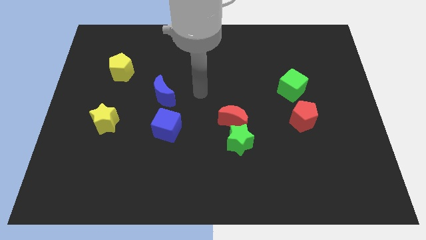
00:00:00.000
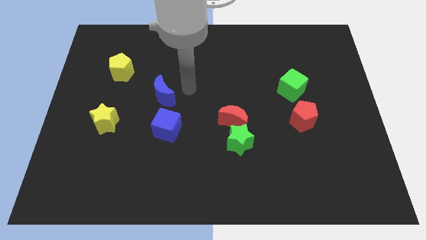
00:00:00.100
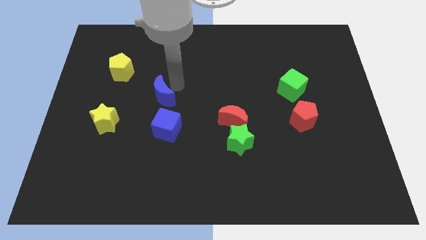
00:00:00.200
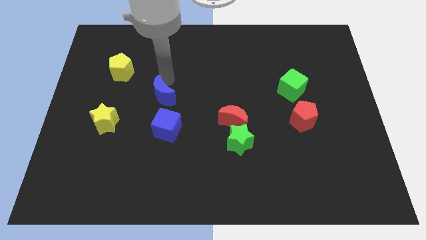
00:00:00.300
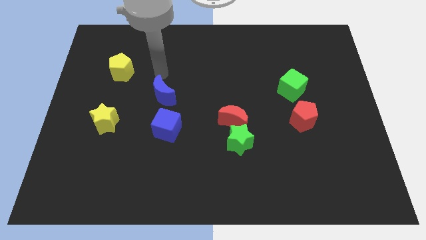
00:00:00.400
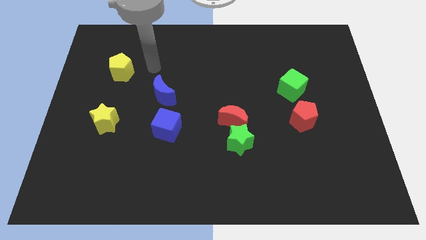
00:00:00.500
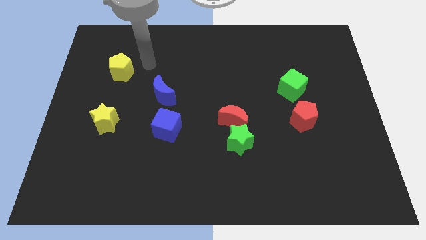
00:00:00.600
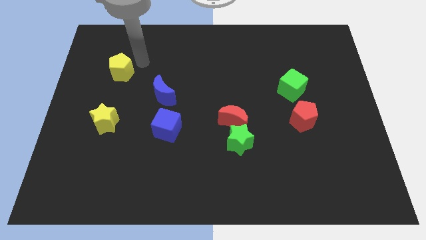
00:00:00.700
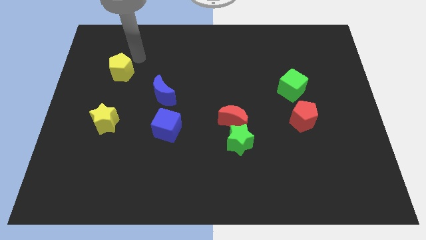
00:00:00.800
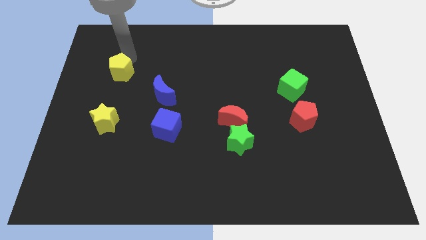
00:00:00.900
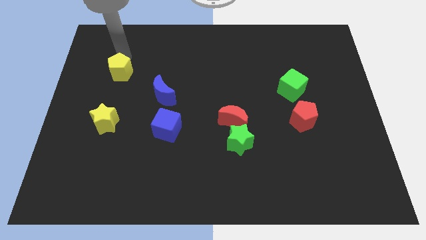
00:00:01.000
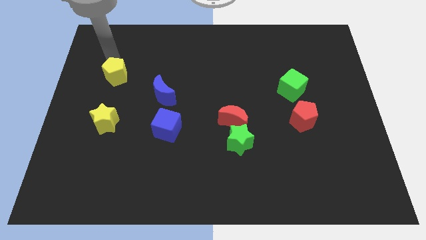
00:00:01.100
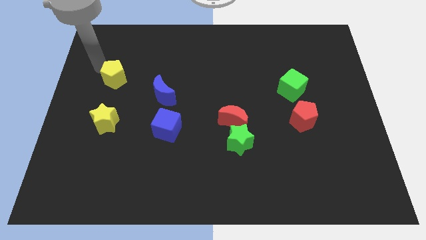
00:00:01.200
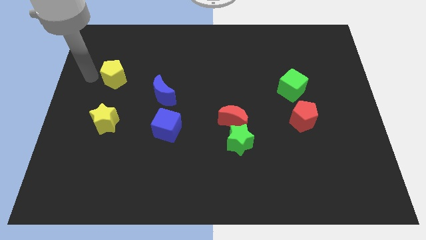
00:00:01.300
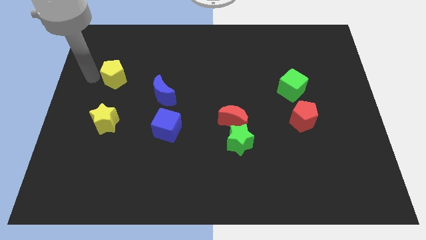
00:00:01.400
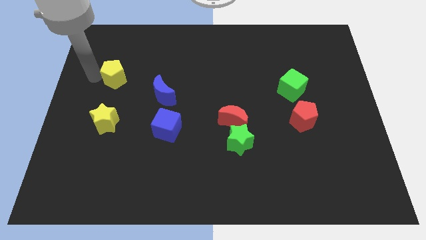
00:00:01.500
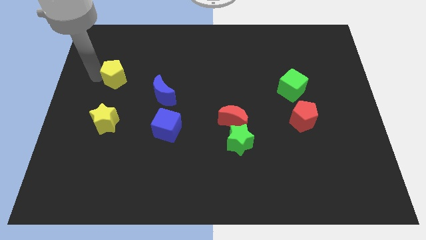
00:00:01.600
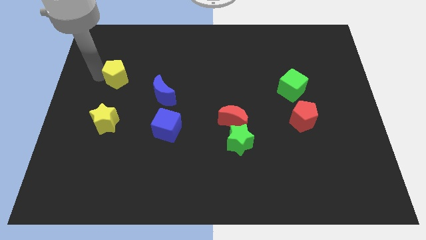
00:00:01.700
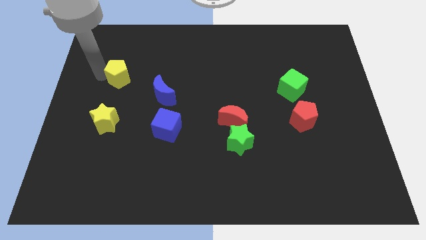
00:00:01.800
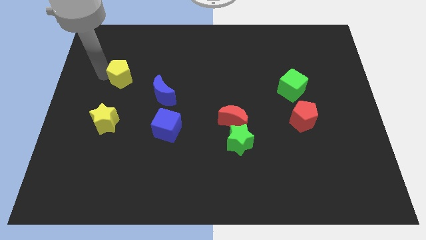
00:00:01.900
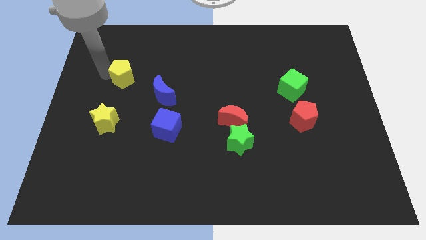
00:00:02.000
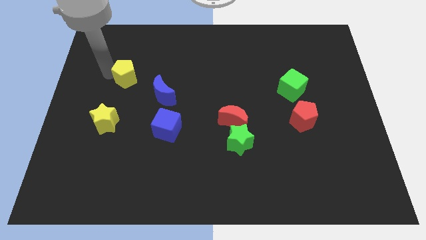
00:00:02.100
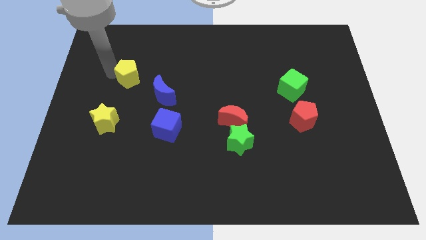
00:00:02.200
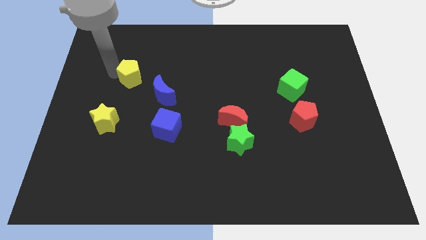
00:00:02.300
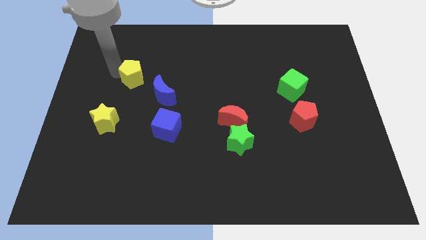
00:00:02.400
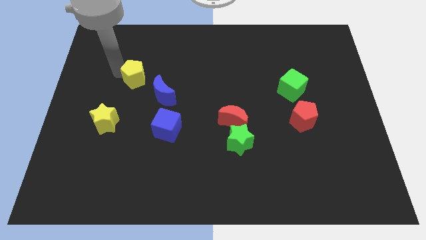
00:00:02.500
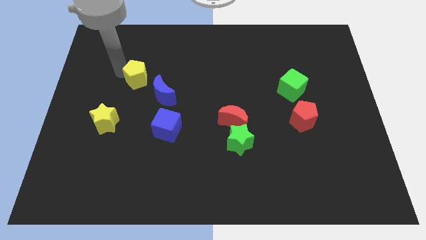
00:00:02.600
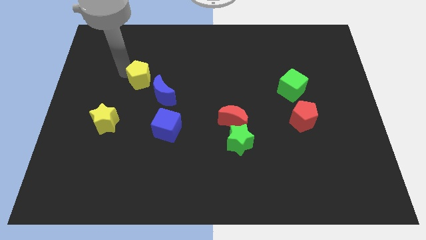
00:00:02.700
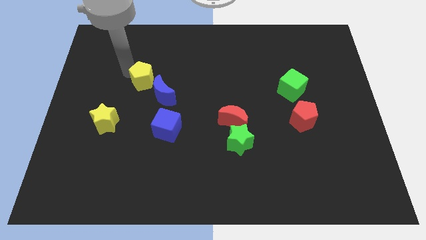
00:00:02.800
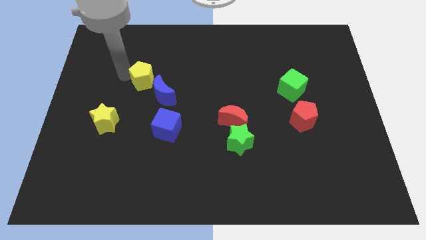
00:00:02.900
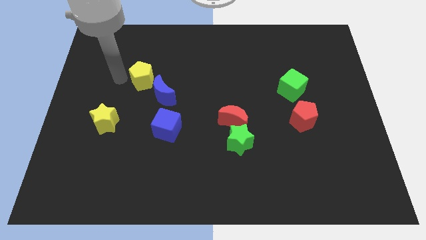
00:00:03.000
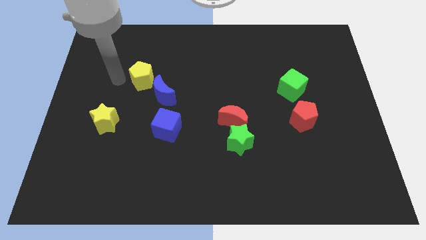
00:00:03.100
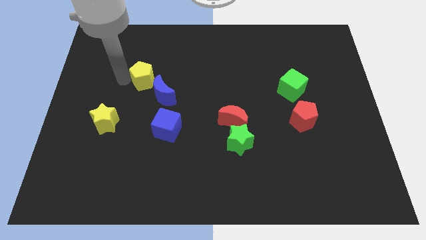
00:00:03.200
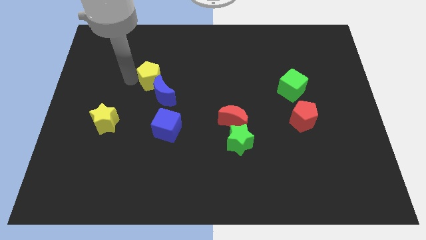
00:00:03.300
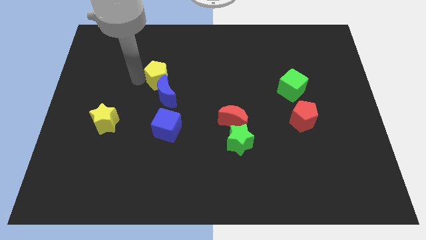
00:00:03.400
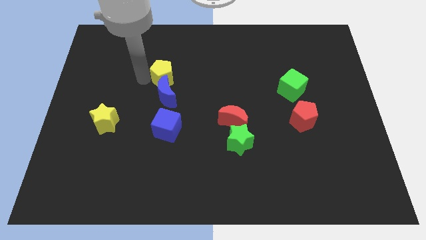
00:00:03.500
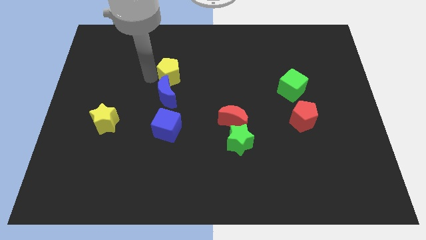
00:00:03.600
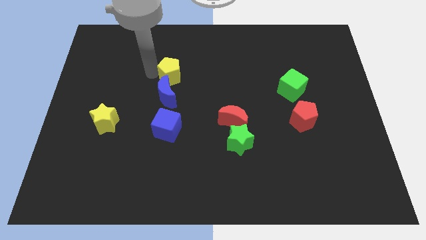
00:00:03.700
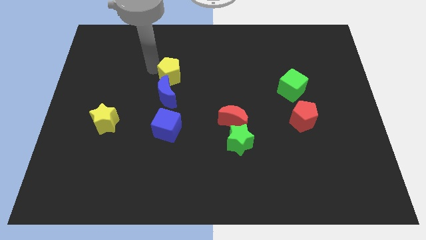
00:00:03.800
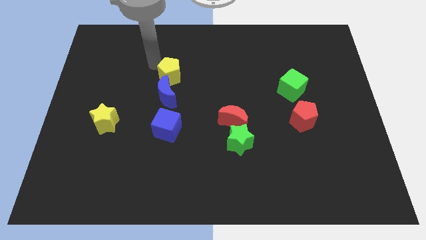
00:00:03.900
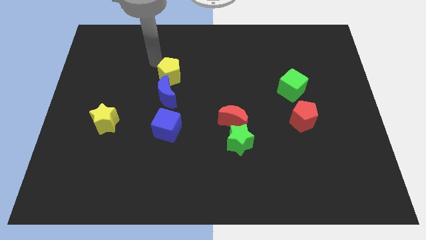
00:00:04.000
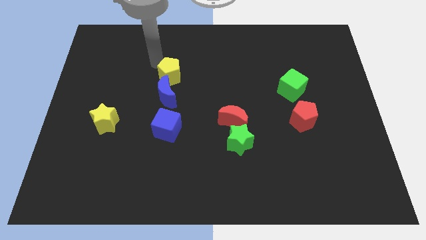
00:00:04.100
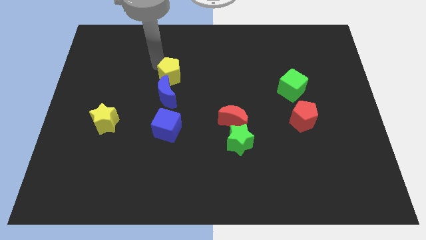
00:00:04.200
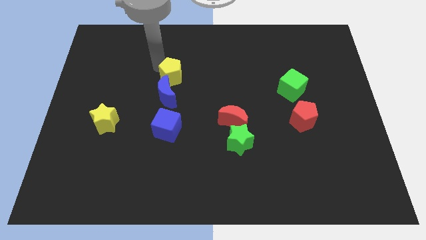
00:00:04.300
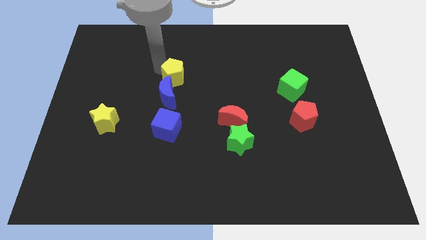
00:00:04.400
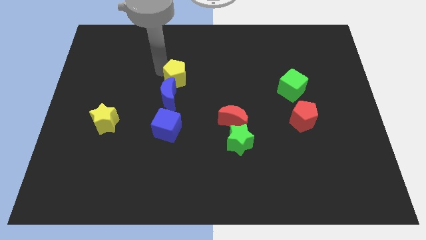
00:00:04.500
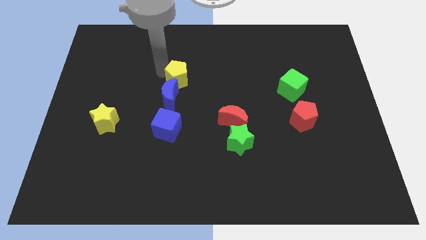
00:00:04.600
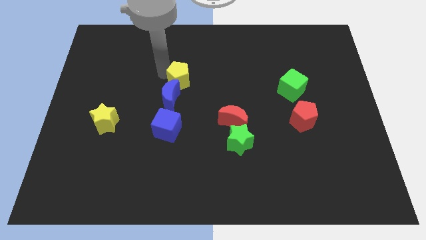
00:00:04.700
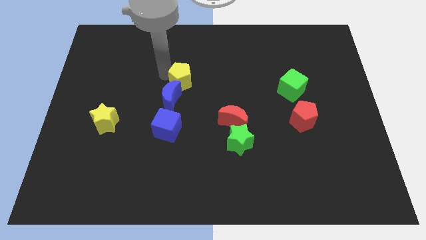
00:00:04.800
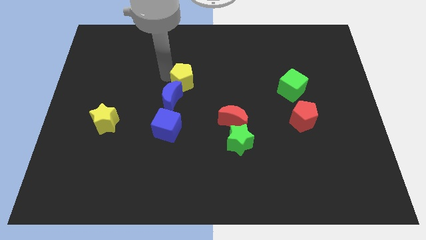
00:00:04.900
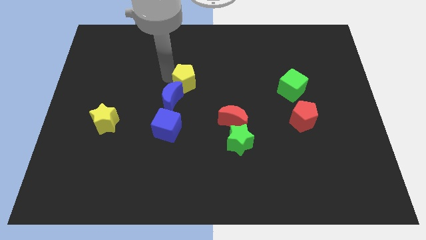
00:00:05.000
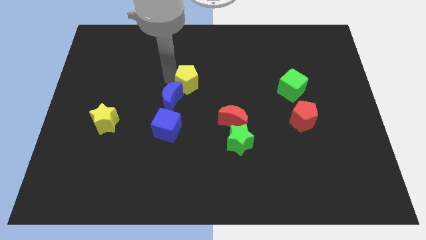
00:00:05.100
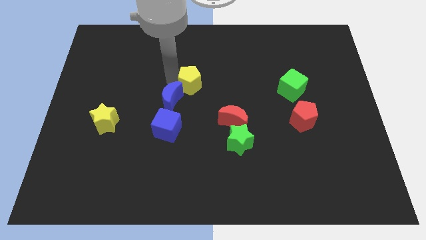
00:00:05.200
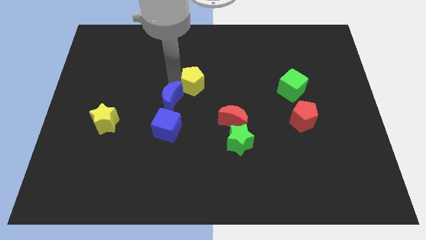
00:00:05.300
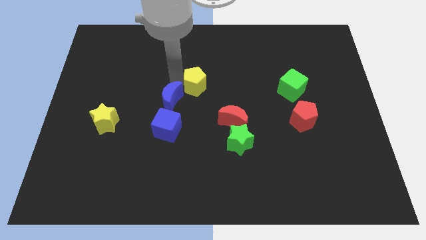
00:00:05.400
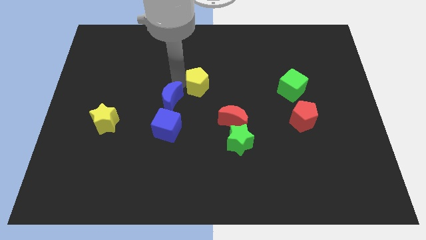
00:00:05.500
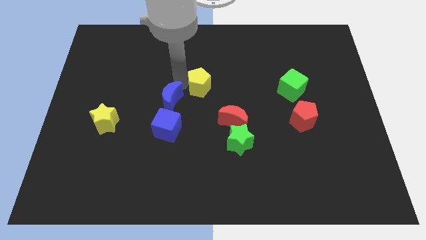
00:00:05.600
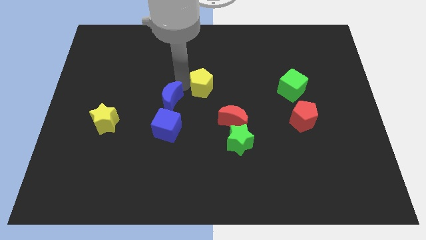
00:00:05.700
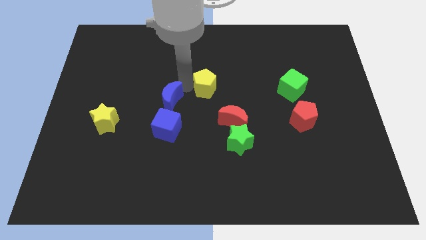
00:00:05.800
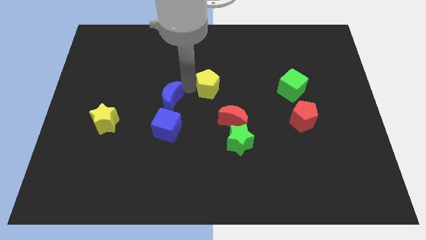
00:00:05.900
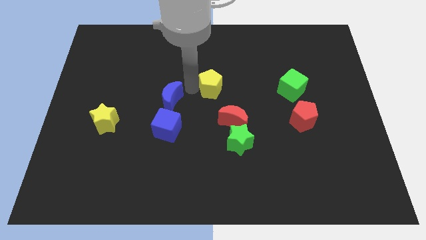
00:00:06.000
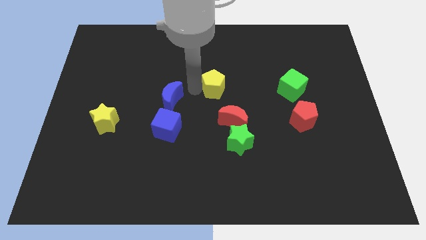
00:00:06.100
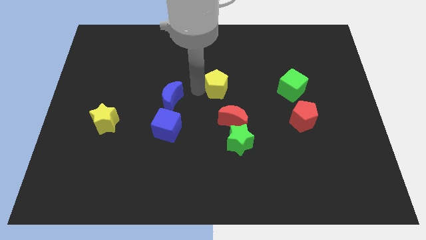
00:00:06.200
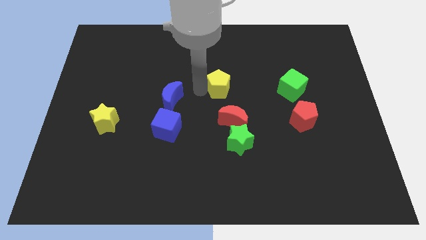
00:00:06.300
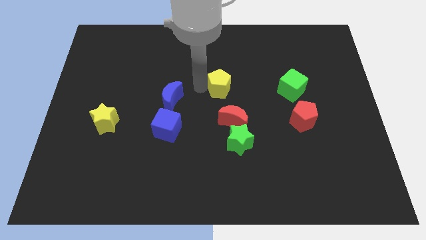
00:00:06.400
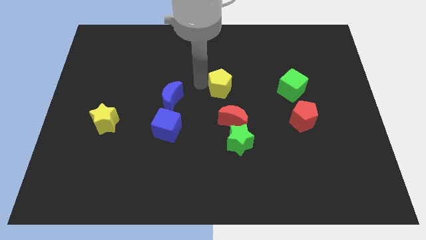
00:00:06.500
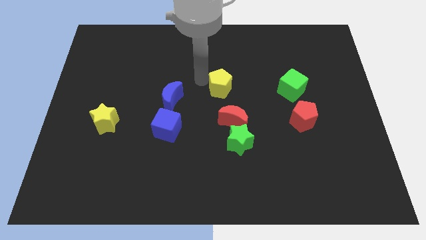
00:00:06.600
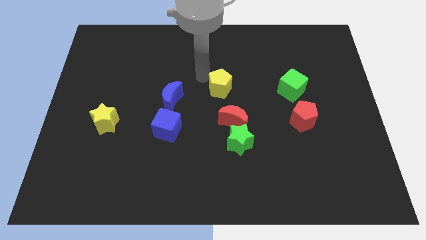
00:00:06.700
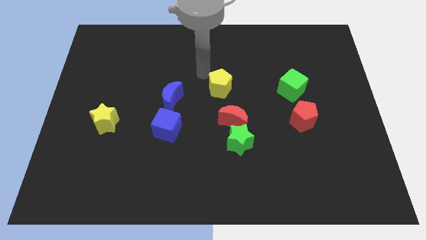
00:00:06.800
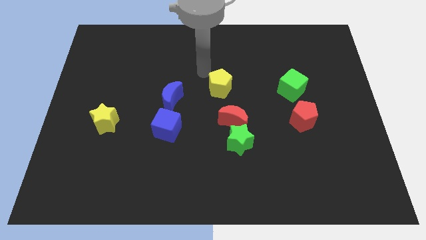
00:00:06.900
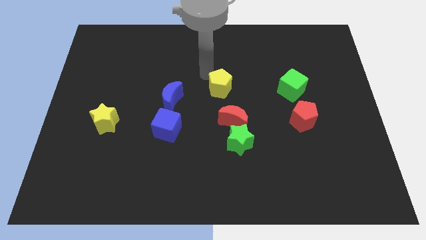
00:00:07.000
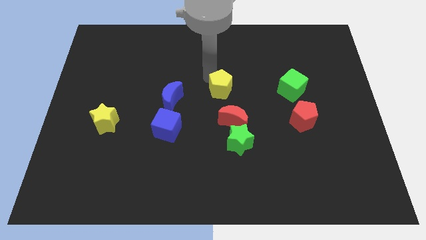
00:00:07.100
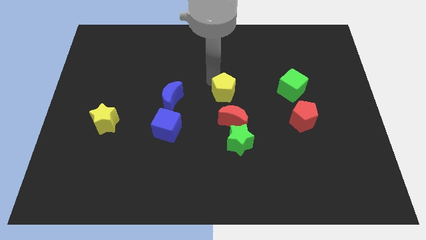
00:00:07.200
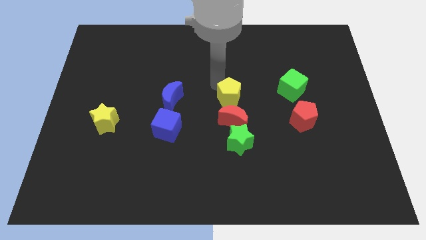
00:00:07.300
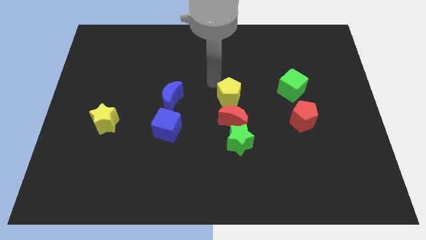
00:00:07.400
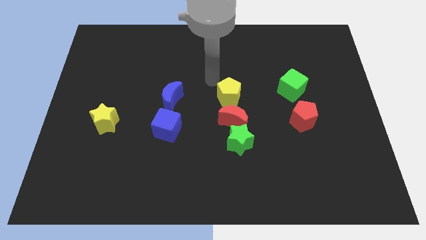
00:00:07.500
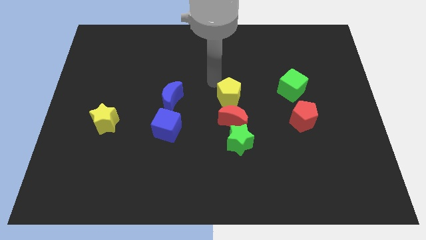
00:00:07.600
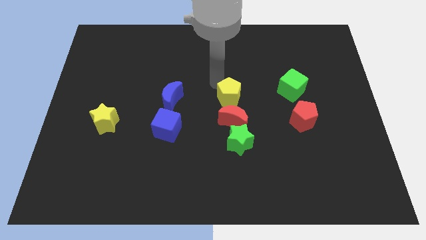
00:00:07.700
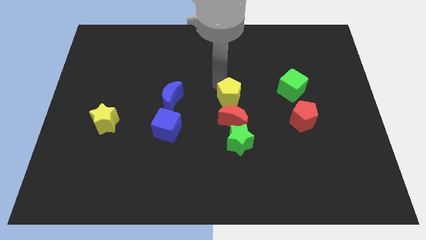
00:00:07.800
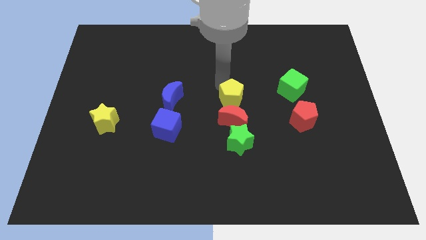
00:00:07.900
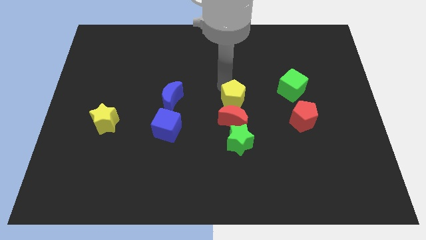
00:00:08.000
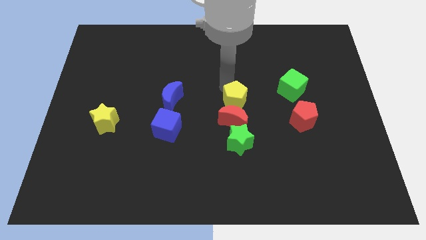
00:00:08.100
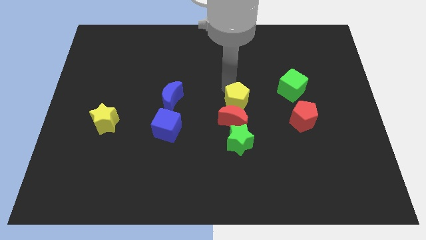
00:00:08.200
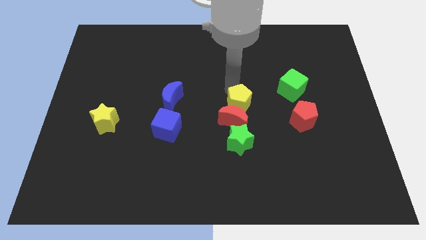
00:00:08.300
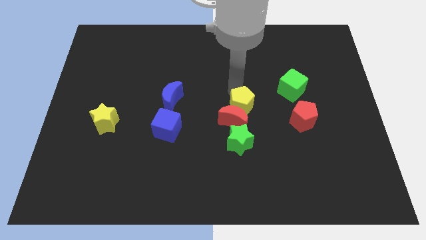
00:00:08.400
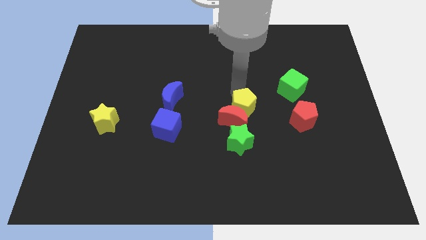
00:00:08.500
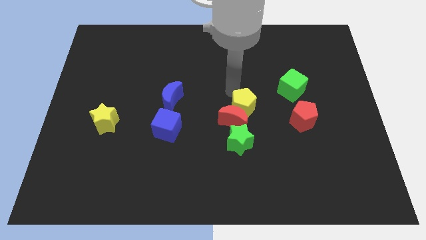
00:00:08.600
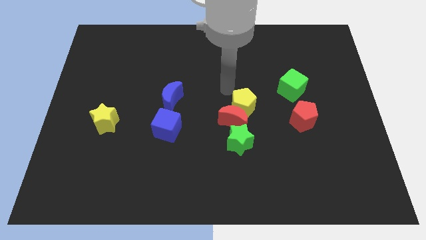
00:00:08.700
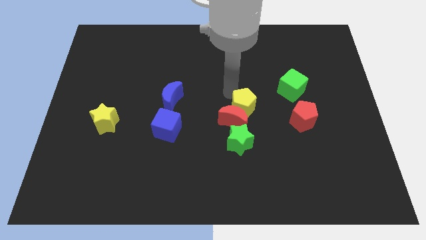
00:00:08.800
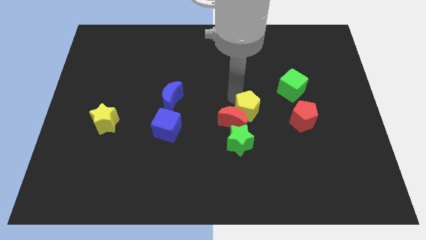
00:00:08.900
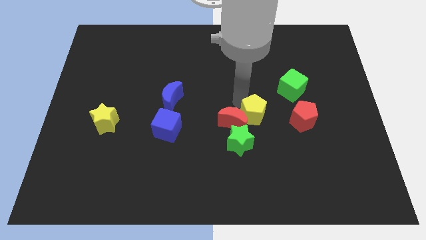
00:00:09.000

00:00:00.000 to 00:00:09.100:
push the yellow pentagon to the top right side of the green star
